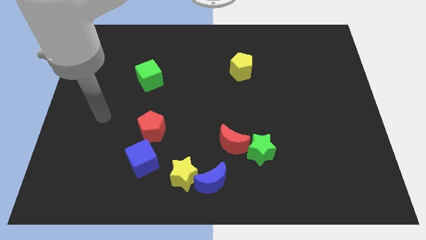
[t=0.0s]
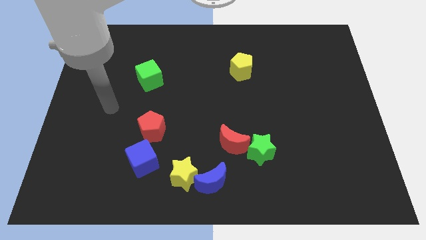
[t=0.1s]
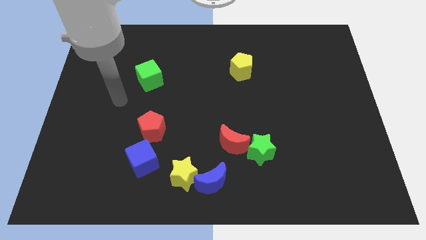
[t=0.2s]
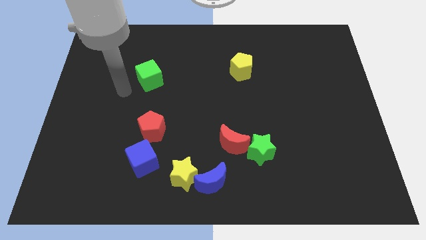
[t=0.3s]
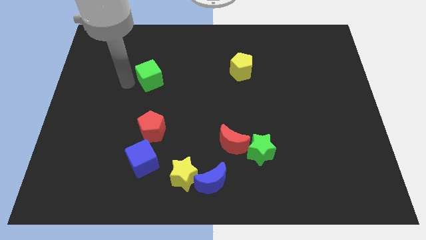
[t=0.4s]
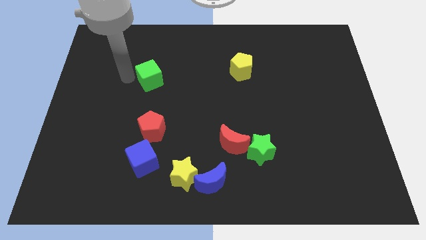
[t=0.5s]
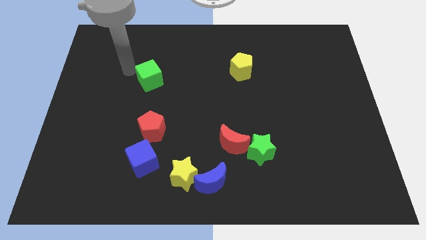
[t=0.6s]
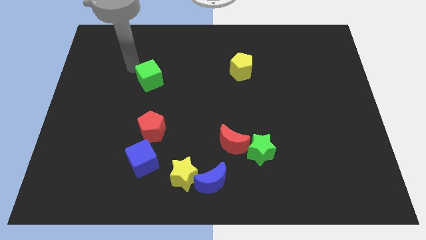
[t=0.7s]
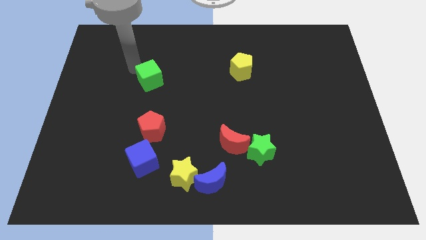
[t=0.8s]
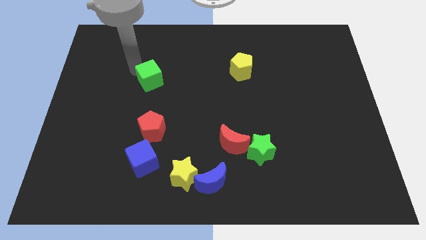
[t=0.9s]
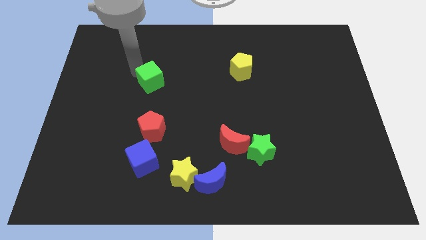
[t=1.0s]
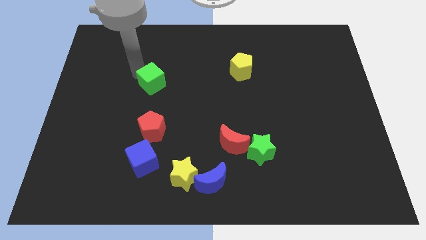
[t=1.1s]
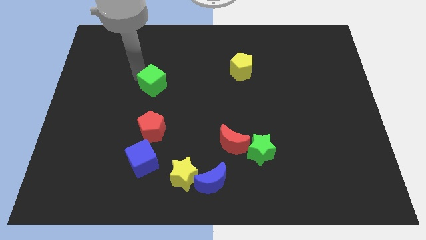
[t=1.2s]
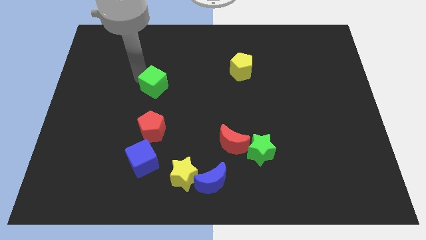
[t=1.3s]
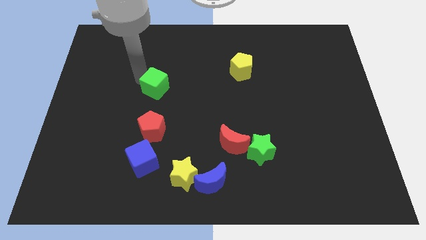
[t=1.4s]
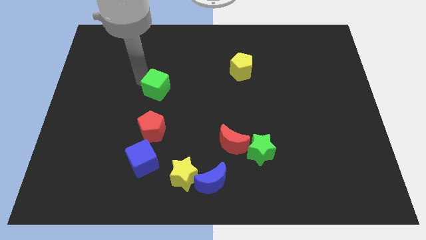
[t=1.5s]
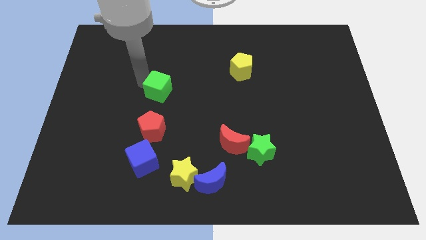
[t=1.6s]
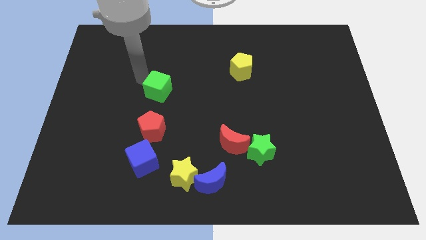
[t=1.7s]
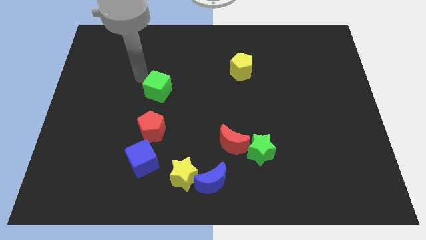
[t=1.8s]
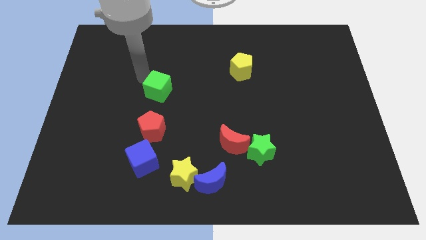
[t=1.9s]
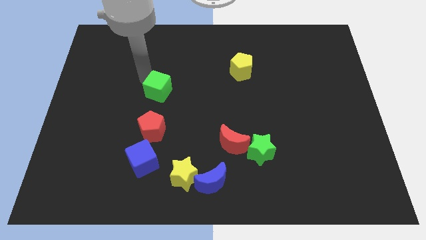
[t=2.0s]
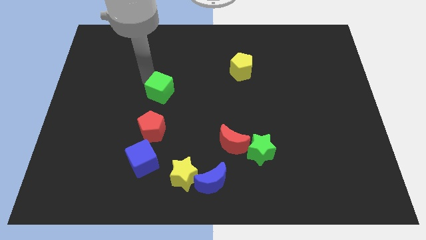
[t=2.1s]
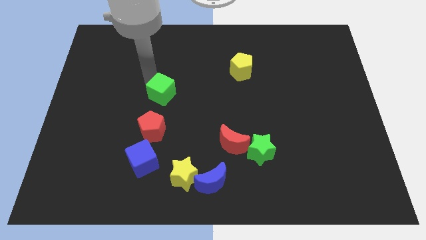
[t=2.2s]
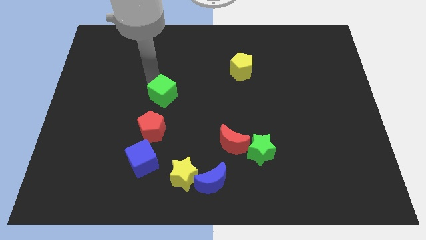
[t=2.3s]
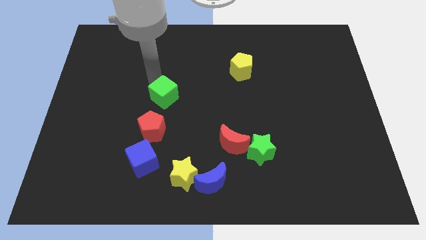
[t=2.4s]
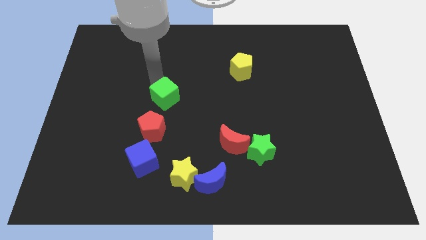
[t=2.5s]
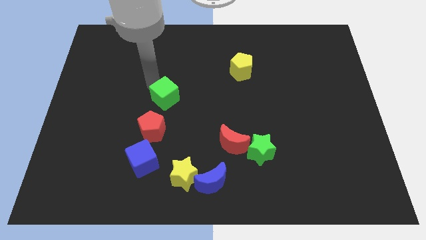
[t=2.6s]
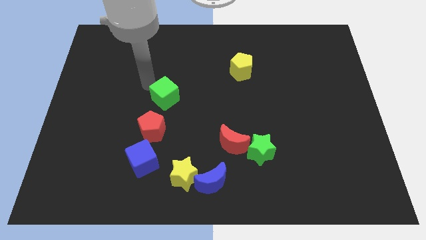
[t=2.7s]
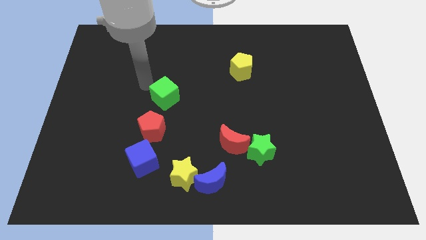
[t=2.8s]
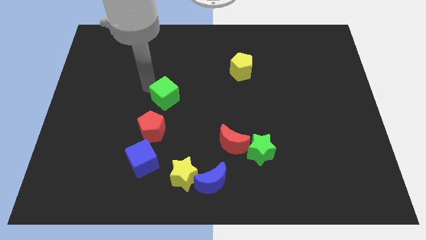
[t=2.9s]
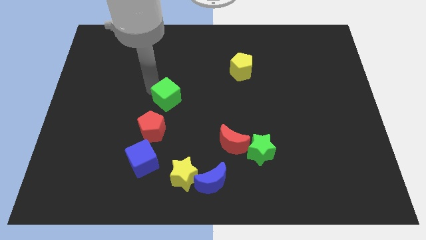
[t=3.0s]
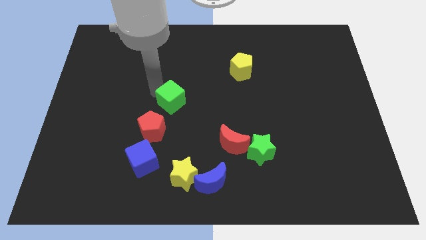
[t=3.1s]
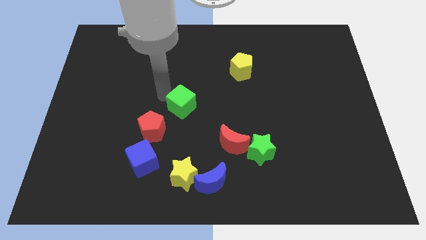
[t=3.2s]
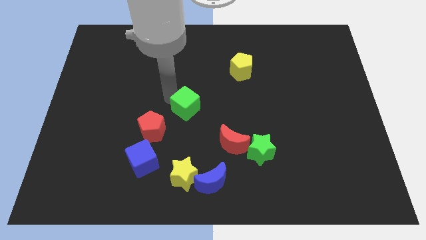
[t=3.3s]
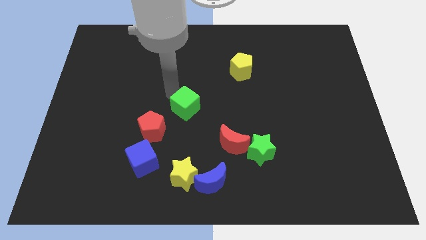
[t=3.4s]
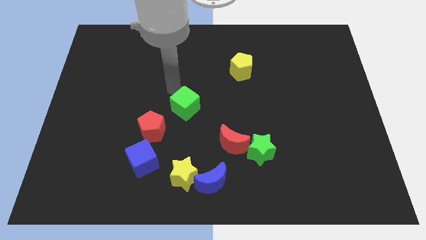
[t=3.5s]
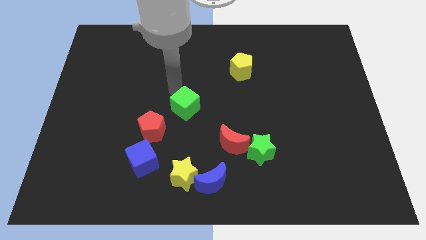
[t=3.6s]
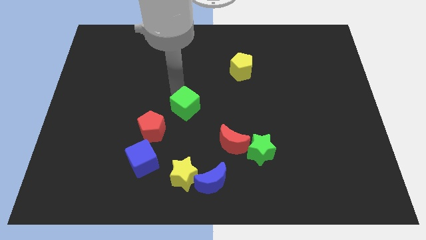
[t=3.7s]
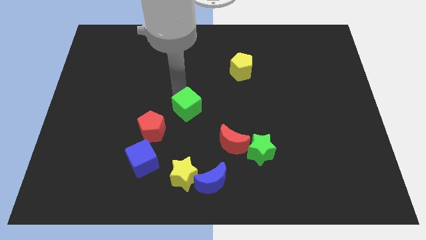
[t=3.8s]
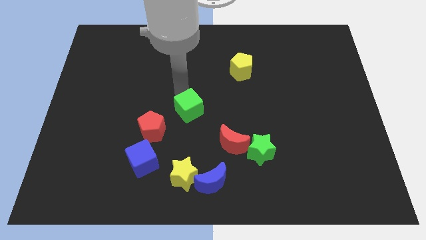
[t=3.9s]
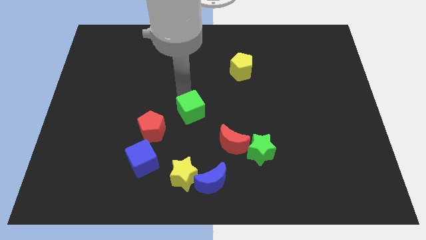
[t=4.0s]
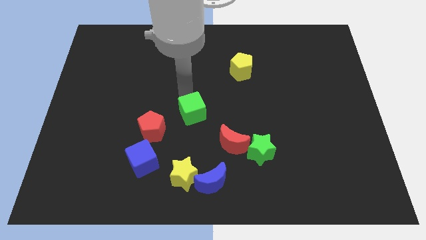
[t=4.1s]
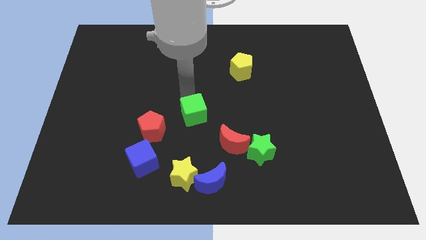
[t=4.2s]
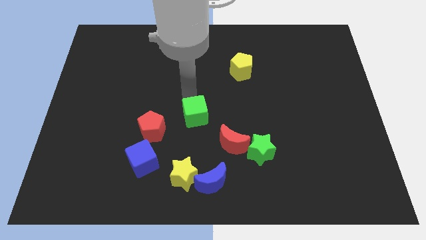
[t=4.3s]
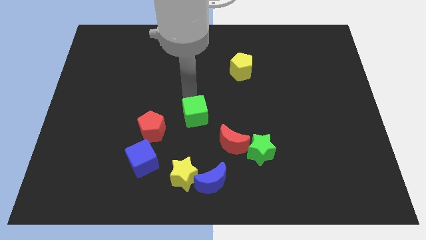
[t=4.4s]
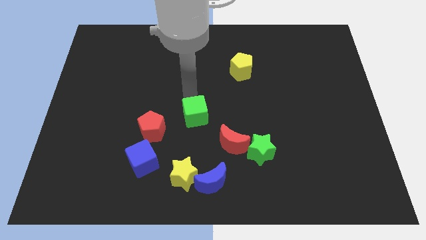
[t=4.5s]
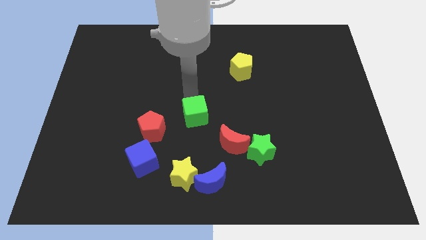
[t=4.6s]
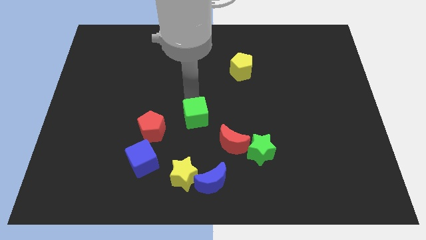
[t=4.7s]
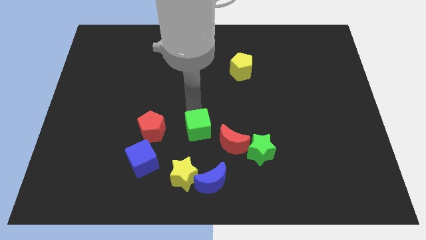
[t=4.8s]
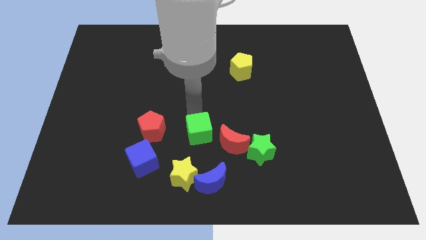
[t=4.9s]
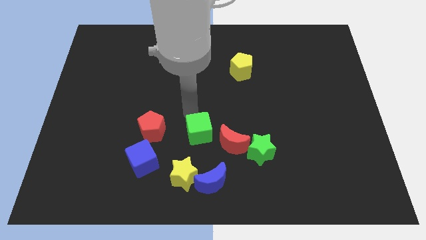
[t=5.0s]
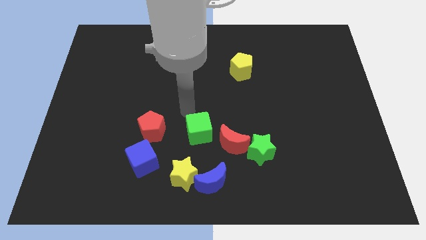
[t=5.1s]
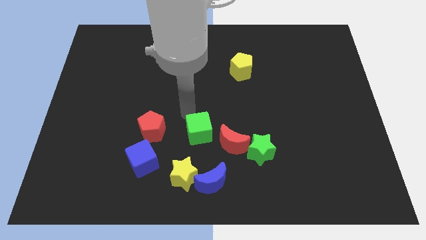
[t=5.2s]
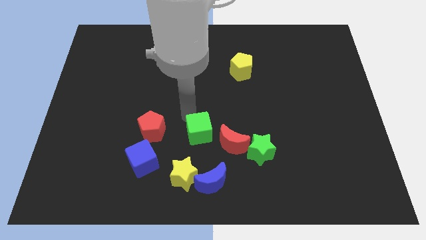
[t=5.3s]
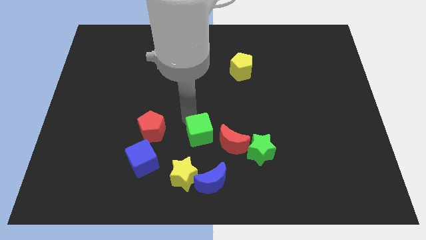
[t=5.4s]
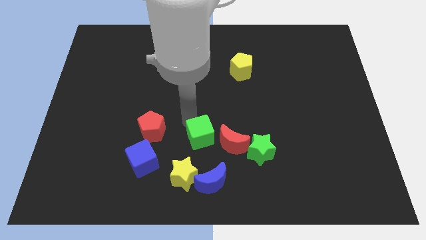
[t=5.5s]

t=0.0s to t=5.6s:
put the green cube just left of the green star

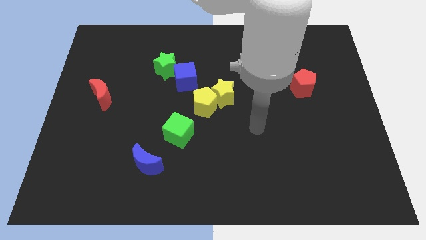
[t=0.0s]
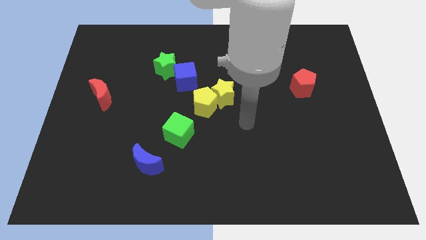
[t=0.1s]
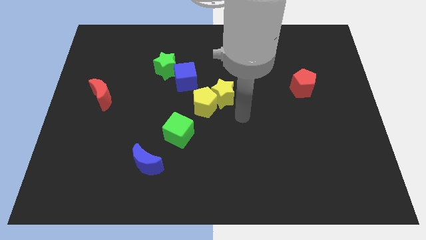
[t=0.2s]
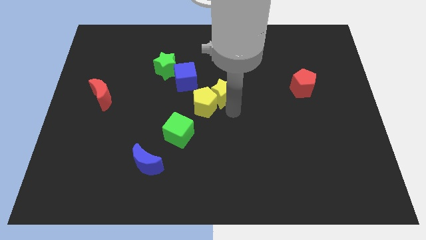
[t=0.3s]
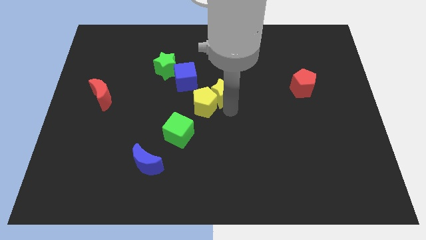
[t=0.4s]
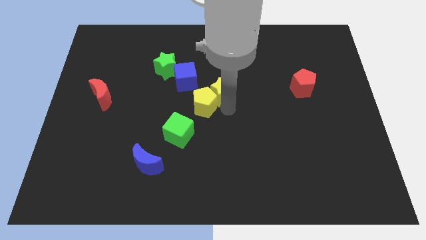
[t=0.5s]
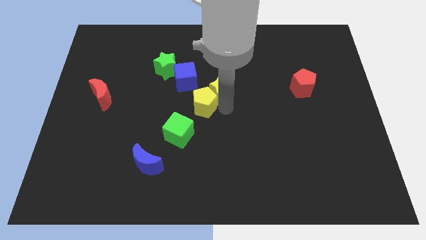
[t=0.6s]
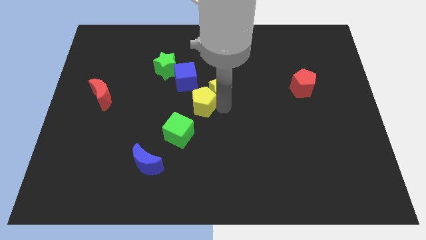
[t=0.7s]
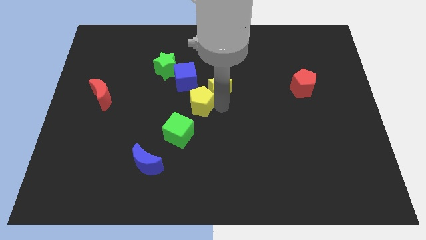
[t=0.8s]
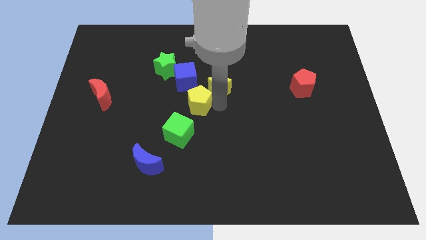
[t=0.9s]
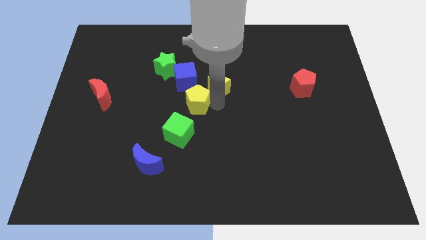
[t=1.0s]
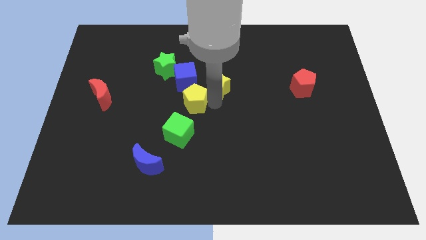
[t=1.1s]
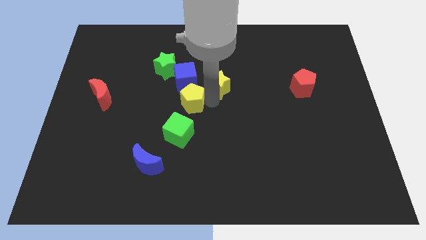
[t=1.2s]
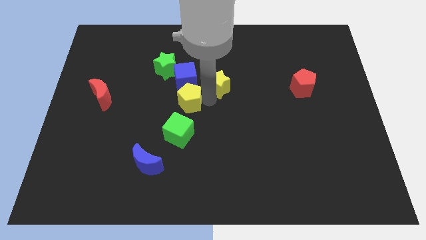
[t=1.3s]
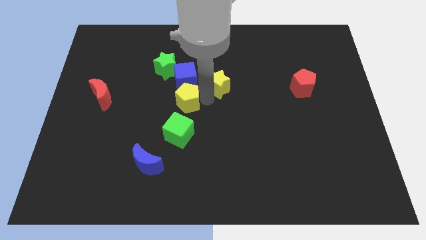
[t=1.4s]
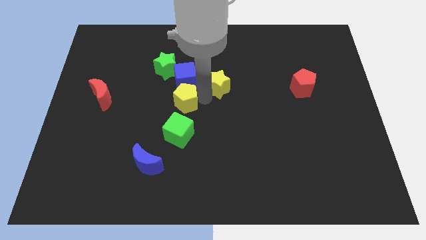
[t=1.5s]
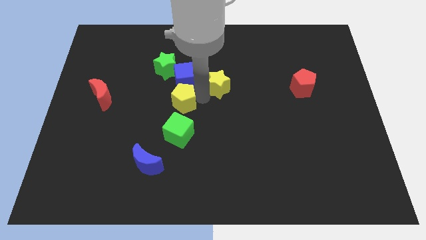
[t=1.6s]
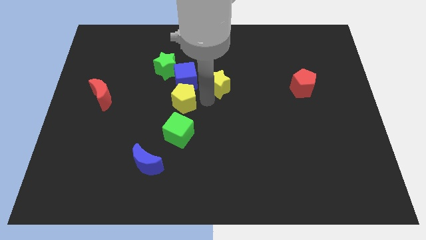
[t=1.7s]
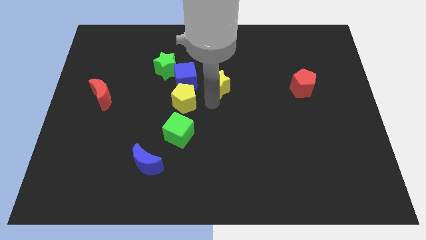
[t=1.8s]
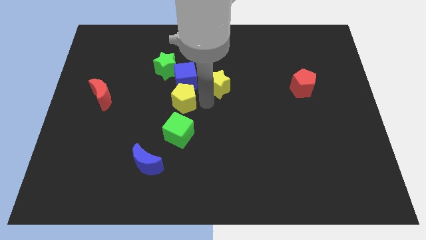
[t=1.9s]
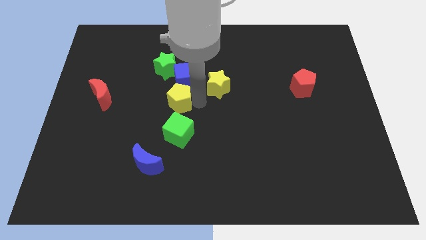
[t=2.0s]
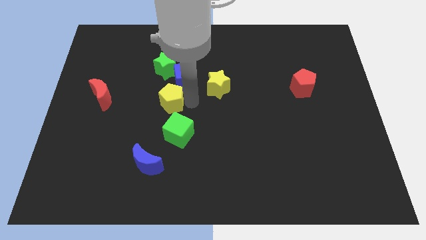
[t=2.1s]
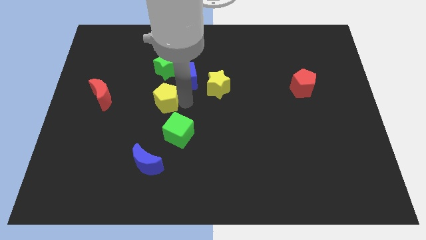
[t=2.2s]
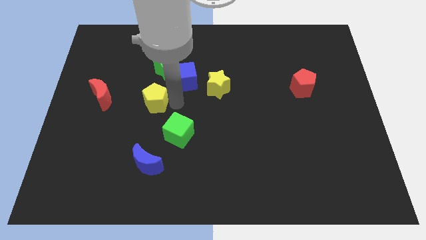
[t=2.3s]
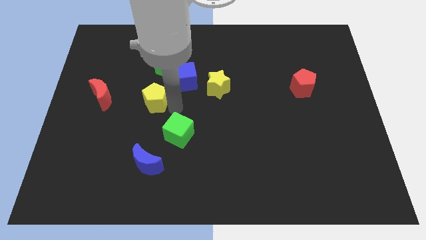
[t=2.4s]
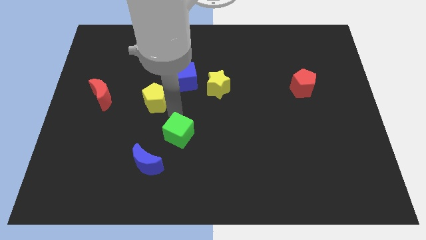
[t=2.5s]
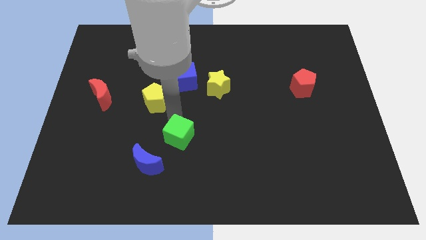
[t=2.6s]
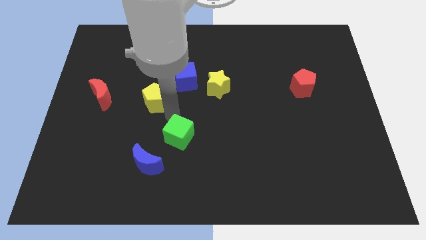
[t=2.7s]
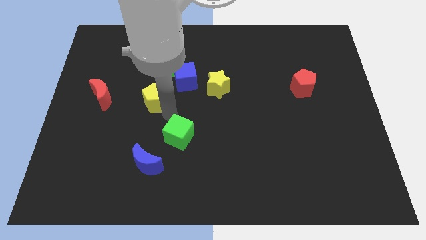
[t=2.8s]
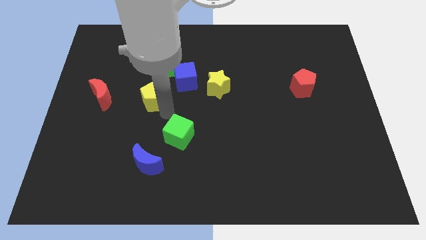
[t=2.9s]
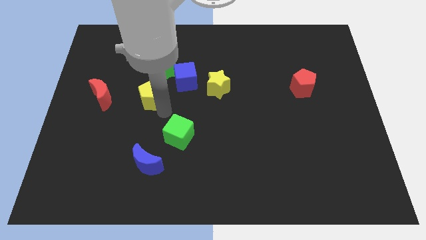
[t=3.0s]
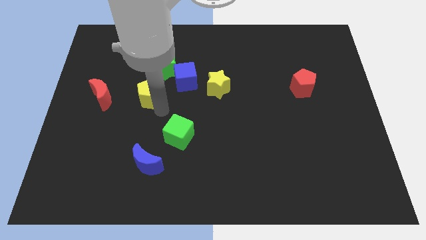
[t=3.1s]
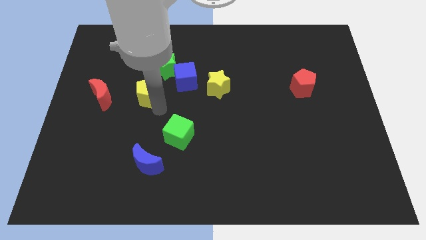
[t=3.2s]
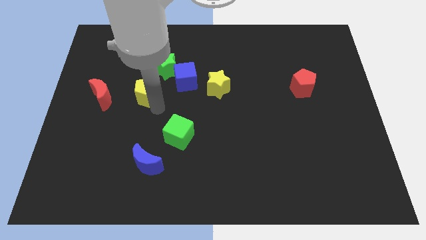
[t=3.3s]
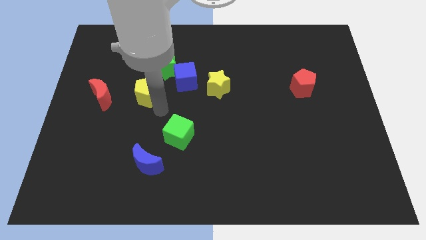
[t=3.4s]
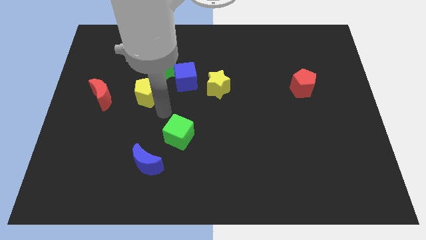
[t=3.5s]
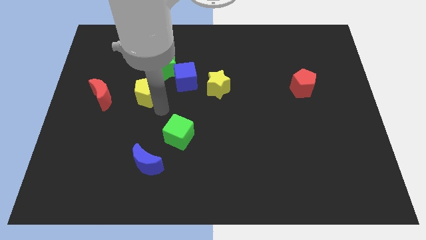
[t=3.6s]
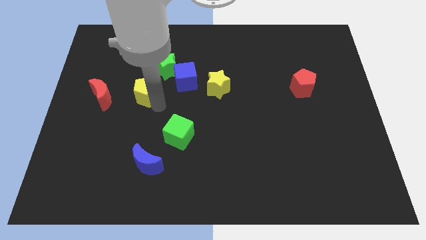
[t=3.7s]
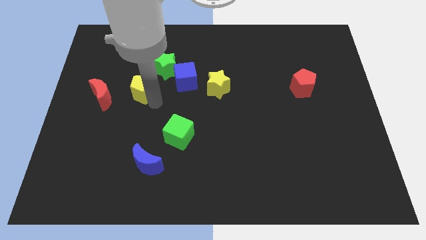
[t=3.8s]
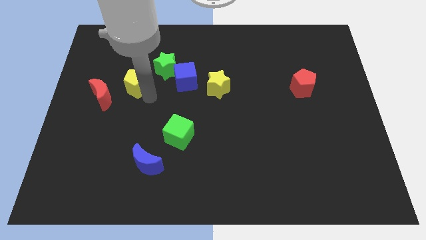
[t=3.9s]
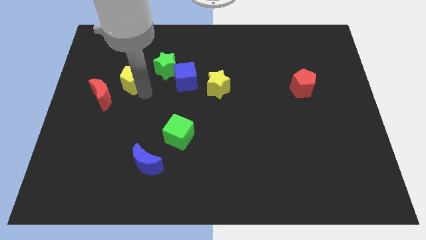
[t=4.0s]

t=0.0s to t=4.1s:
move the yellow pentagon to the left of the green star
